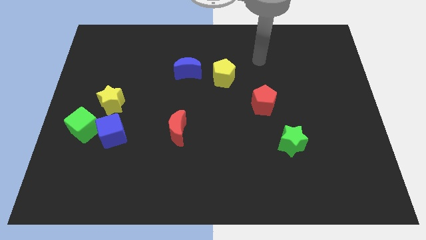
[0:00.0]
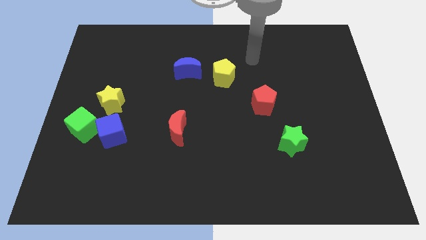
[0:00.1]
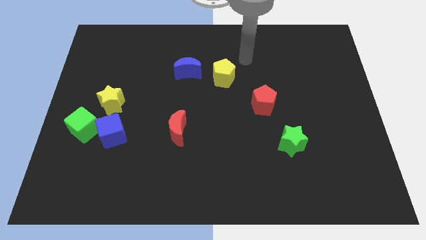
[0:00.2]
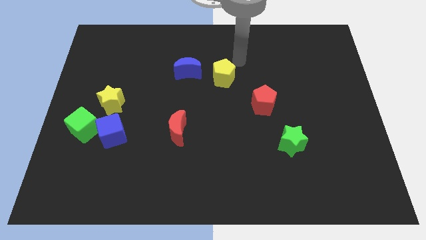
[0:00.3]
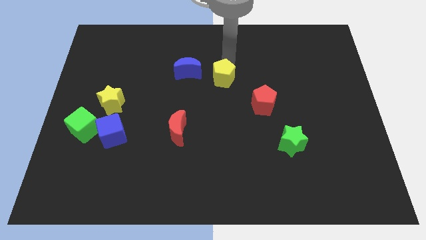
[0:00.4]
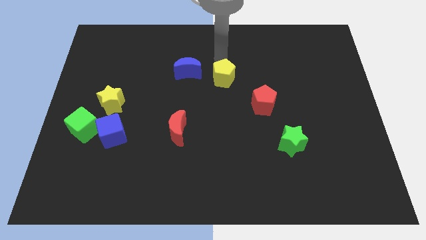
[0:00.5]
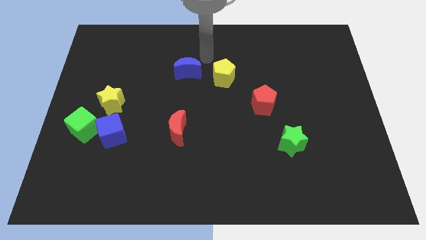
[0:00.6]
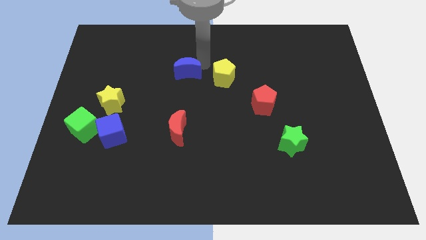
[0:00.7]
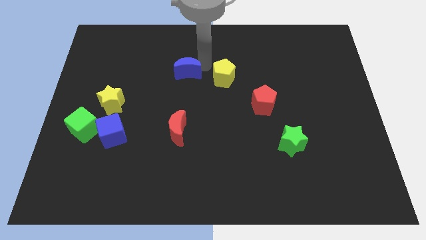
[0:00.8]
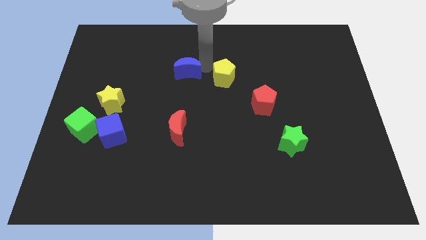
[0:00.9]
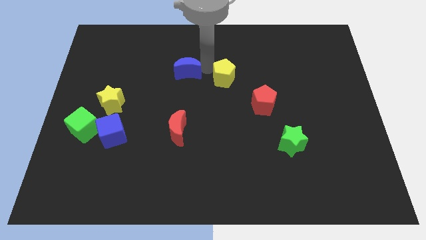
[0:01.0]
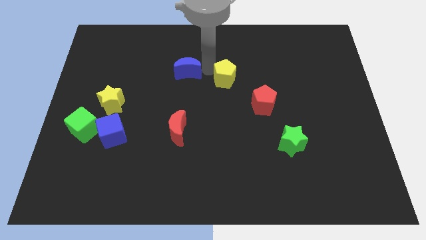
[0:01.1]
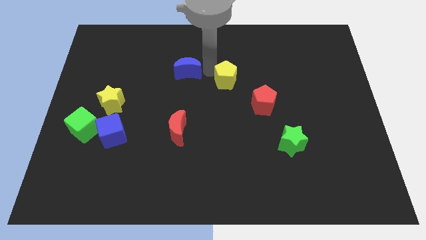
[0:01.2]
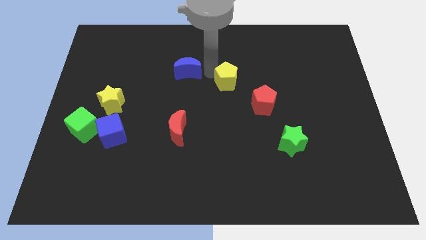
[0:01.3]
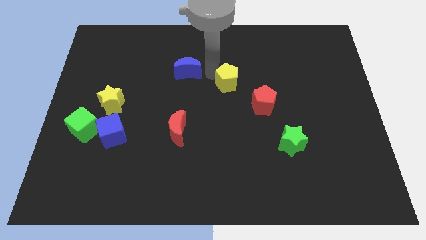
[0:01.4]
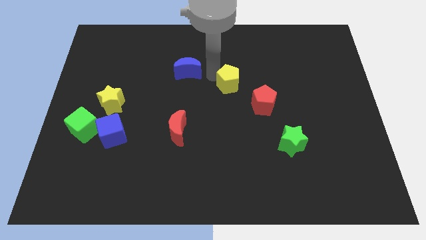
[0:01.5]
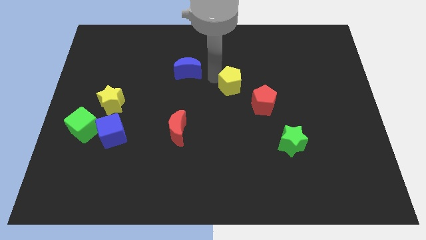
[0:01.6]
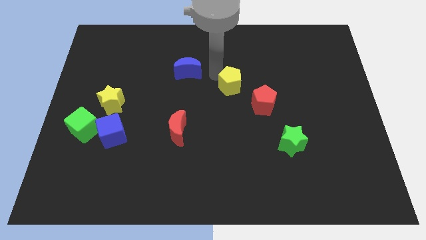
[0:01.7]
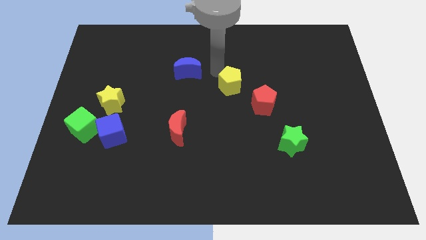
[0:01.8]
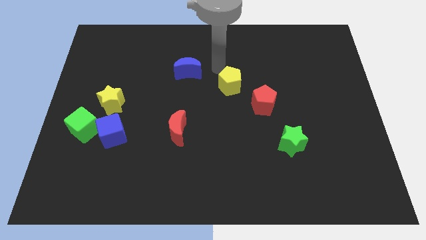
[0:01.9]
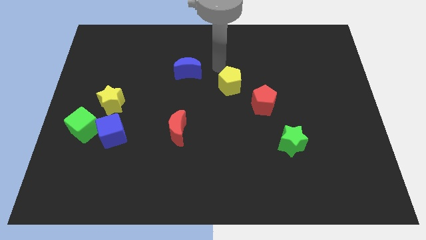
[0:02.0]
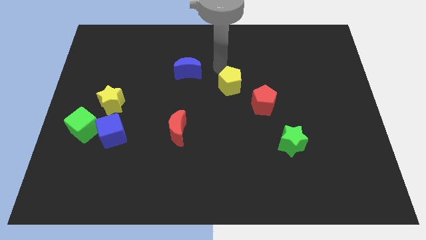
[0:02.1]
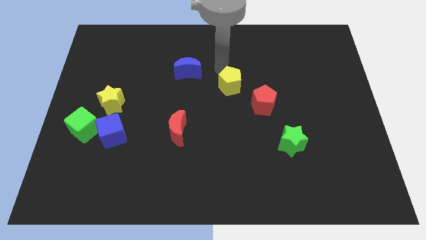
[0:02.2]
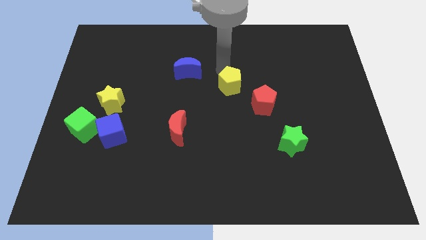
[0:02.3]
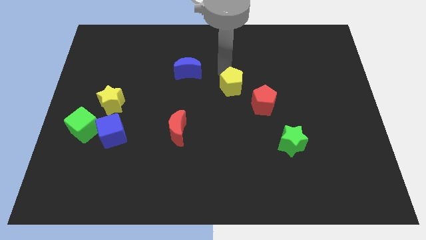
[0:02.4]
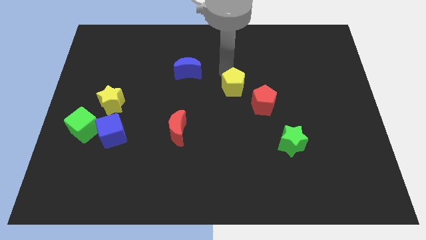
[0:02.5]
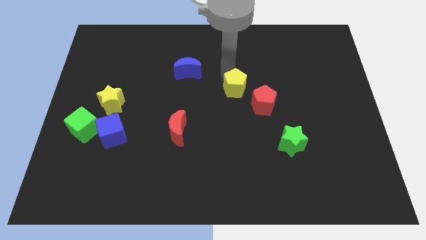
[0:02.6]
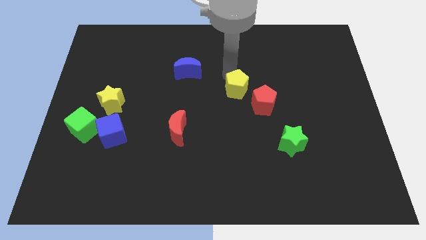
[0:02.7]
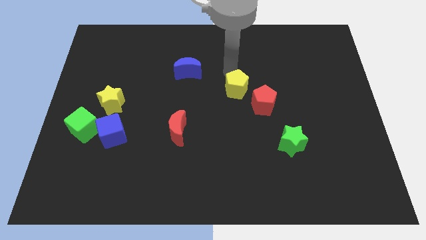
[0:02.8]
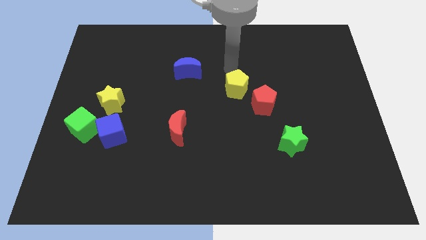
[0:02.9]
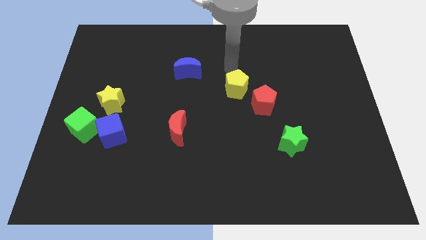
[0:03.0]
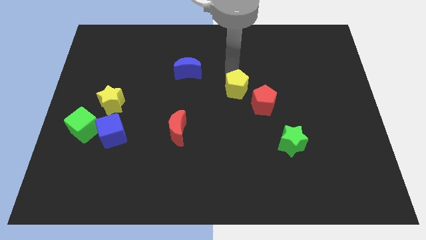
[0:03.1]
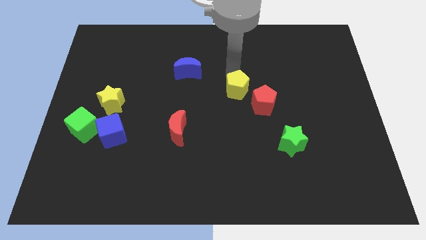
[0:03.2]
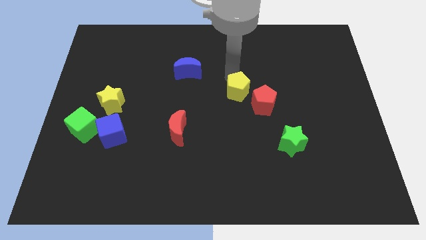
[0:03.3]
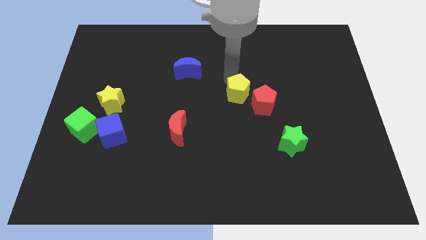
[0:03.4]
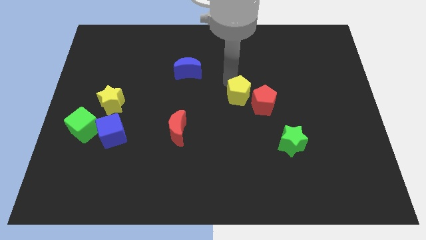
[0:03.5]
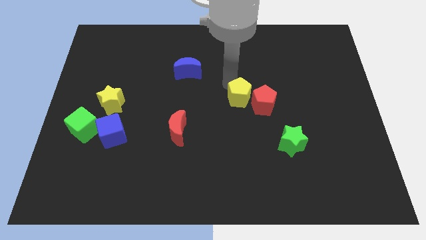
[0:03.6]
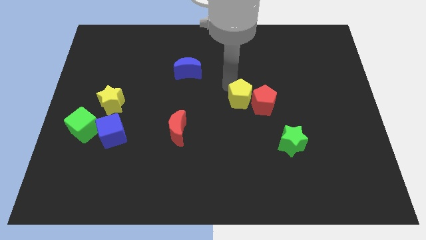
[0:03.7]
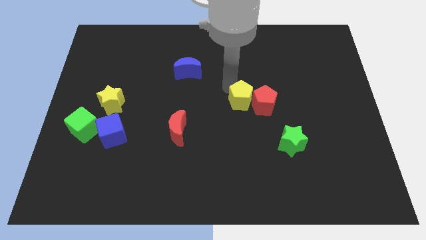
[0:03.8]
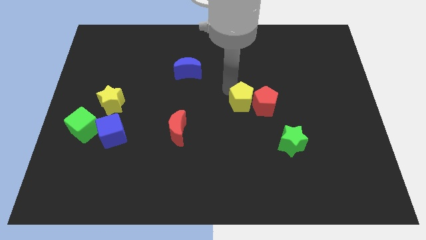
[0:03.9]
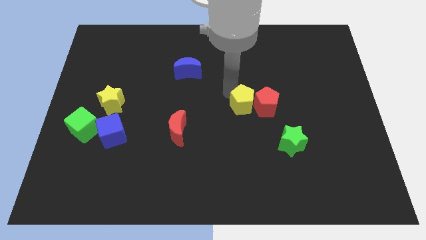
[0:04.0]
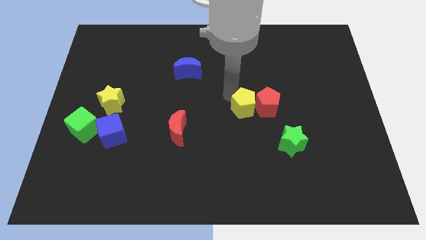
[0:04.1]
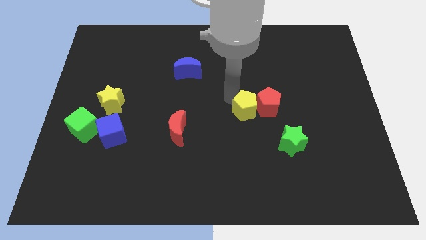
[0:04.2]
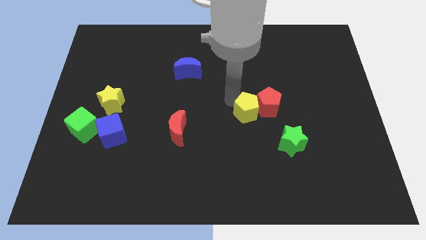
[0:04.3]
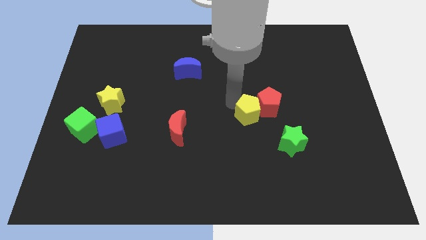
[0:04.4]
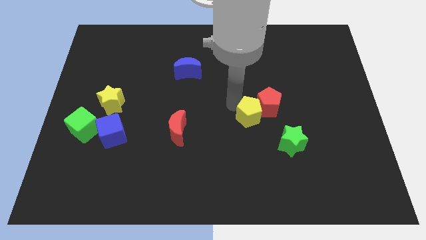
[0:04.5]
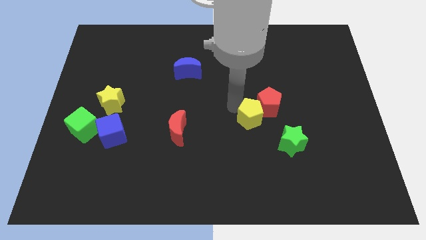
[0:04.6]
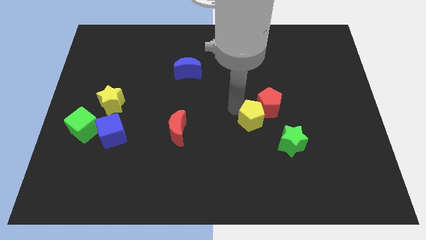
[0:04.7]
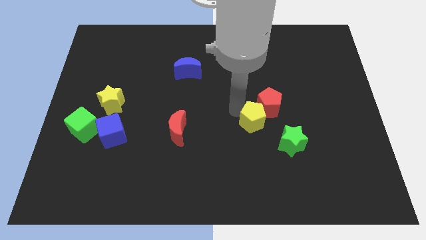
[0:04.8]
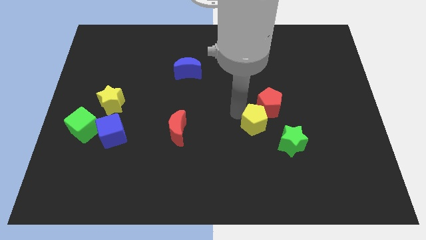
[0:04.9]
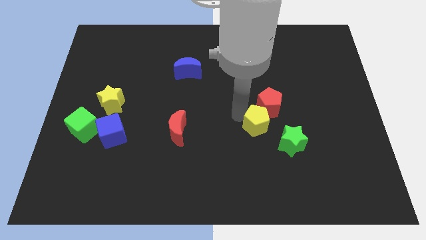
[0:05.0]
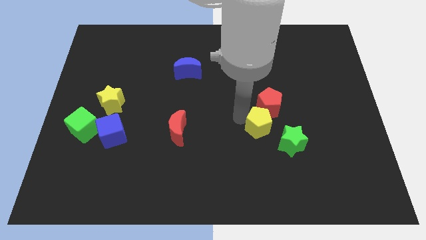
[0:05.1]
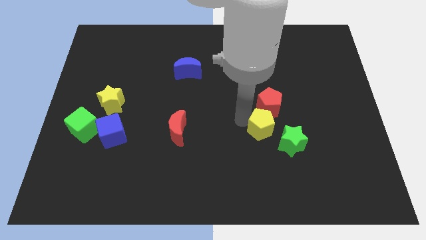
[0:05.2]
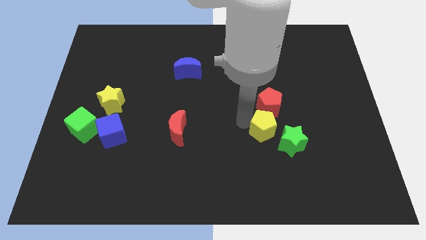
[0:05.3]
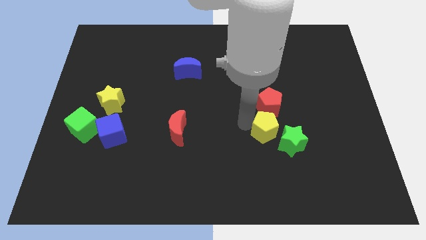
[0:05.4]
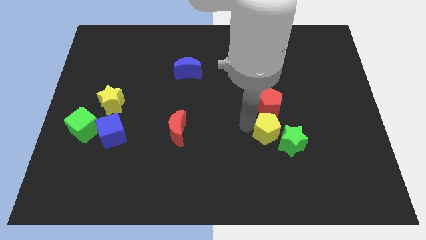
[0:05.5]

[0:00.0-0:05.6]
move the yellow pentagon next to the green star

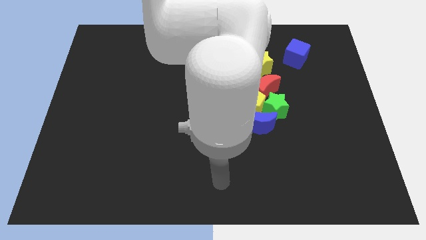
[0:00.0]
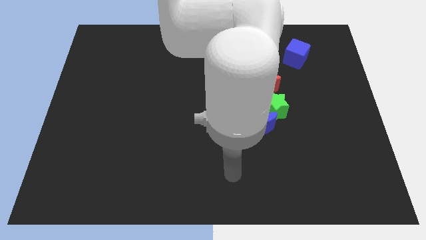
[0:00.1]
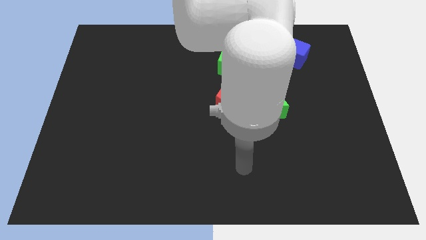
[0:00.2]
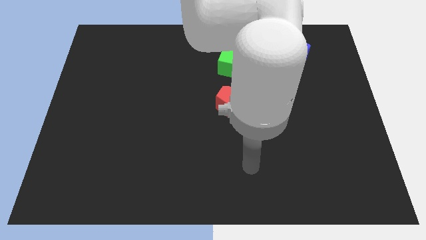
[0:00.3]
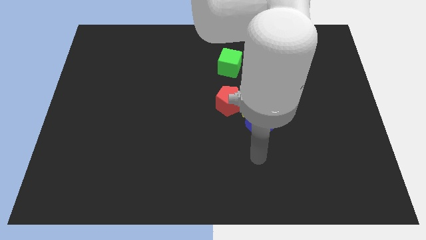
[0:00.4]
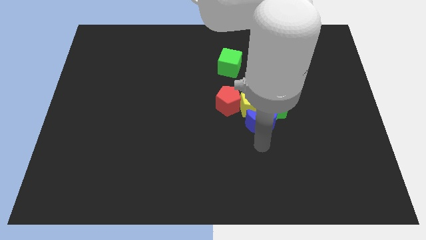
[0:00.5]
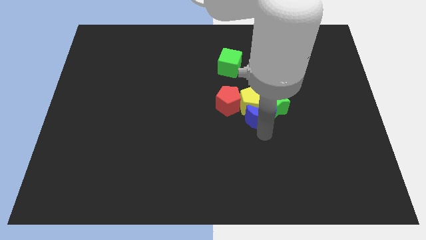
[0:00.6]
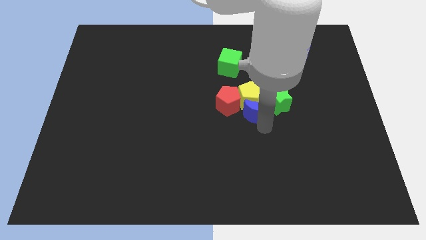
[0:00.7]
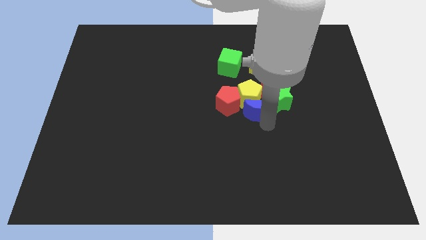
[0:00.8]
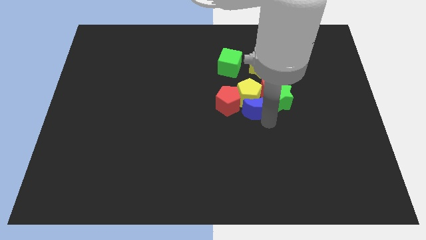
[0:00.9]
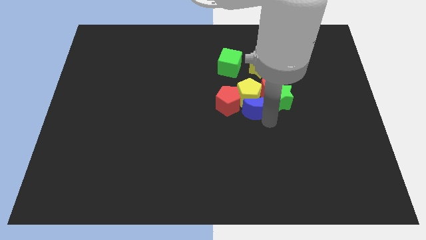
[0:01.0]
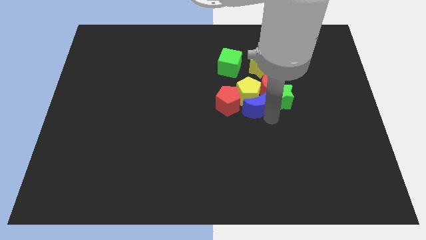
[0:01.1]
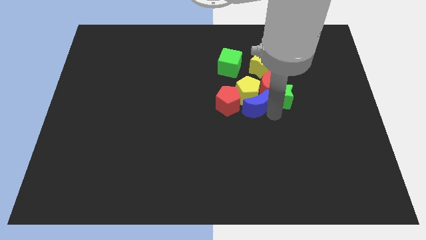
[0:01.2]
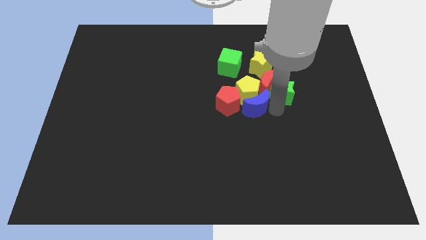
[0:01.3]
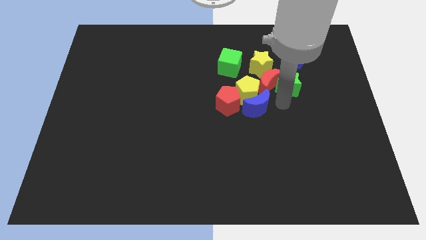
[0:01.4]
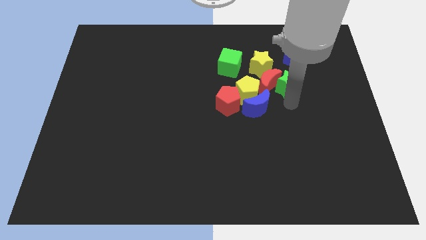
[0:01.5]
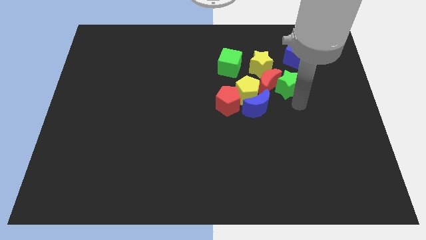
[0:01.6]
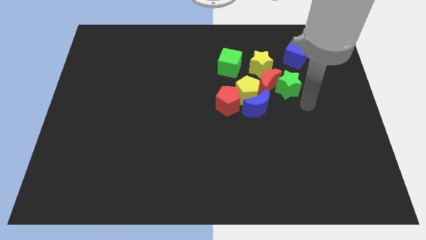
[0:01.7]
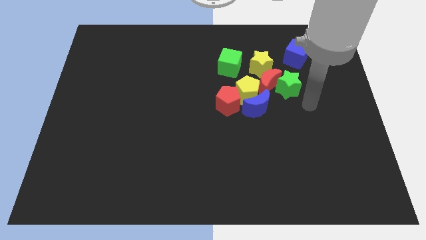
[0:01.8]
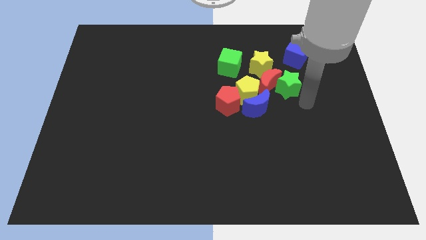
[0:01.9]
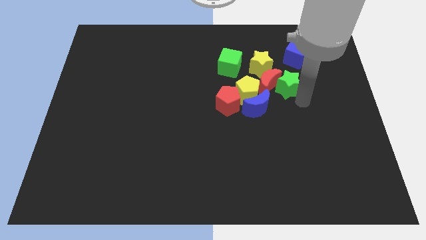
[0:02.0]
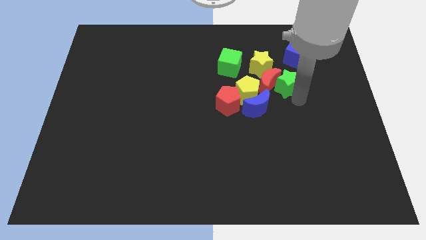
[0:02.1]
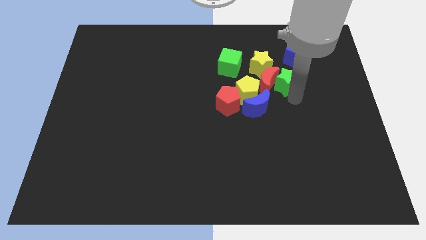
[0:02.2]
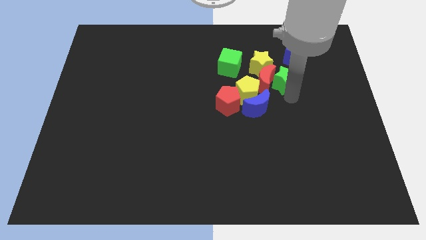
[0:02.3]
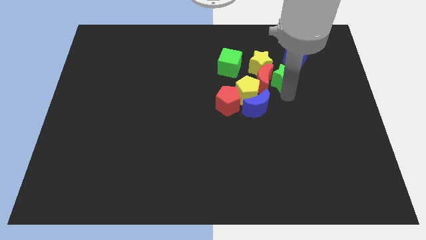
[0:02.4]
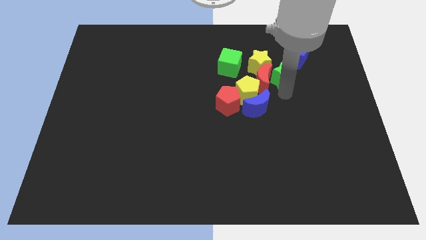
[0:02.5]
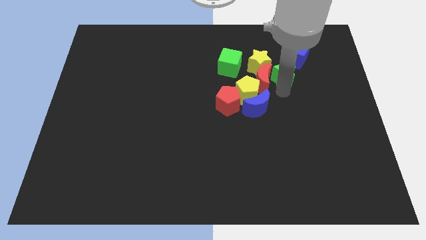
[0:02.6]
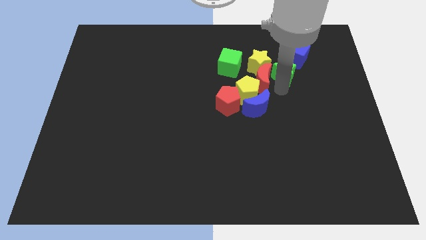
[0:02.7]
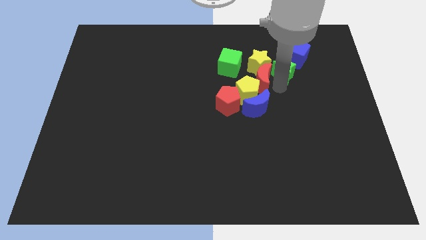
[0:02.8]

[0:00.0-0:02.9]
move the green star towards the yellow star
